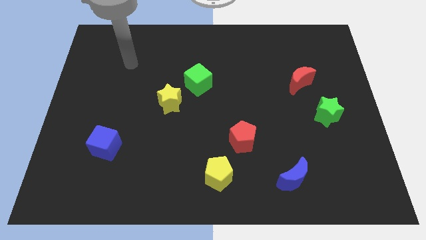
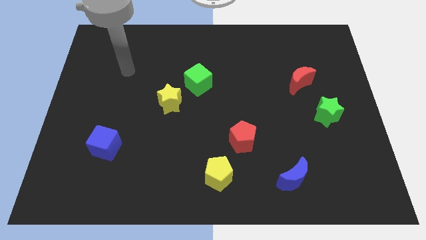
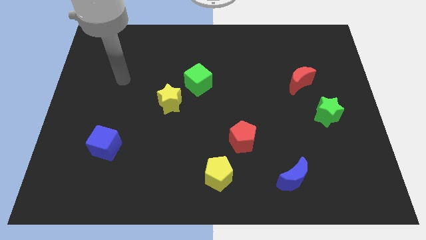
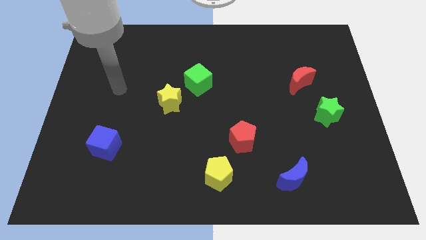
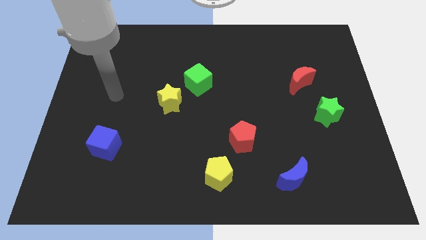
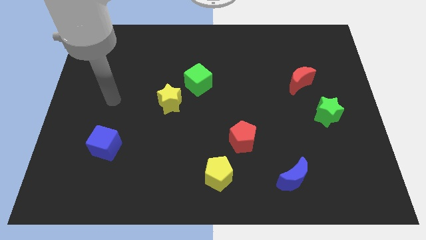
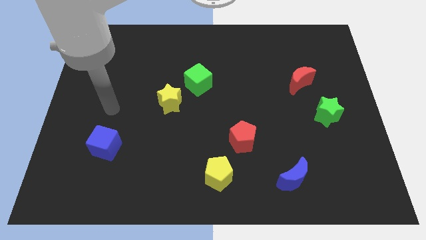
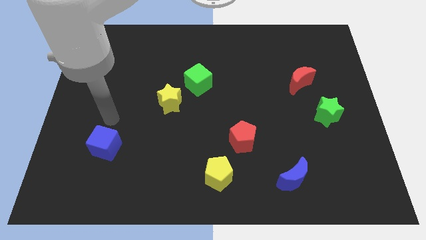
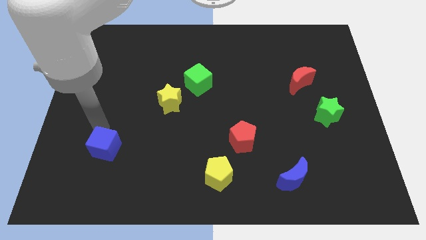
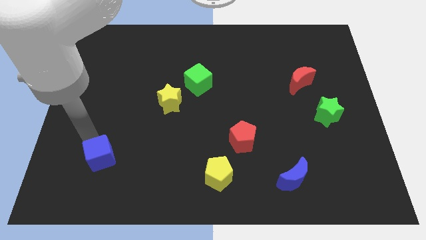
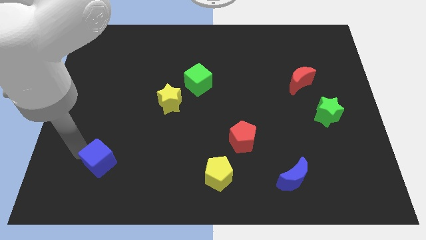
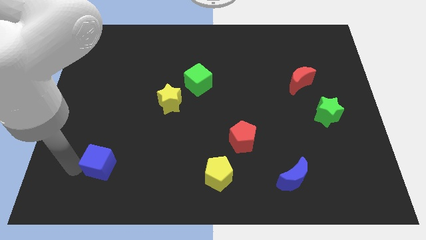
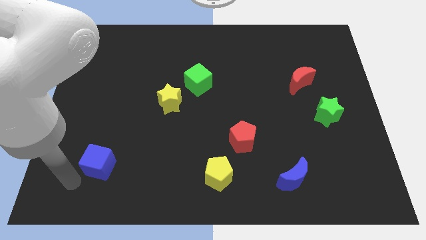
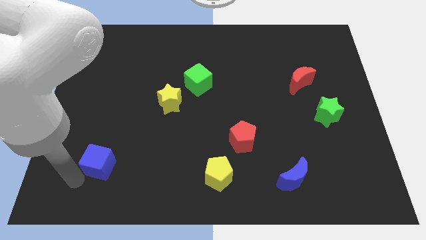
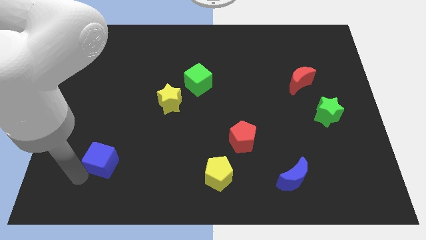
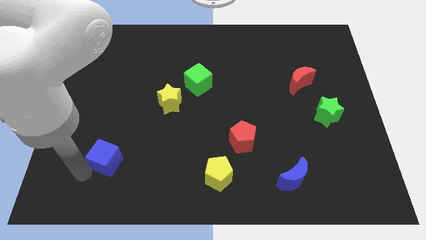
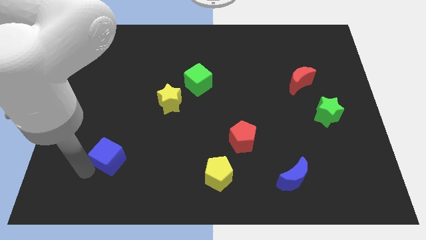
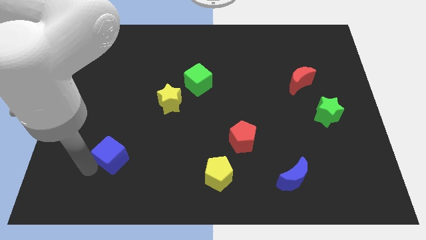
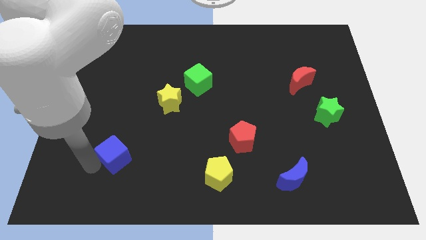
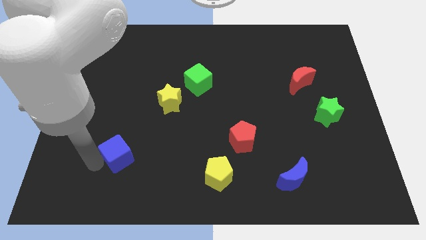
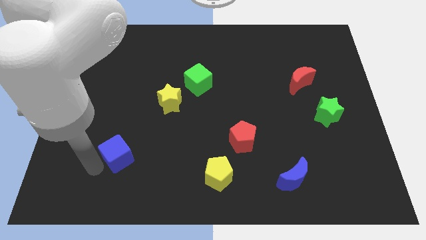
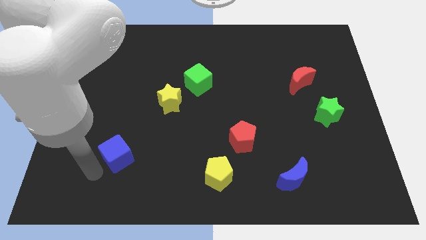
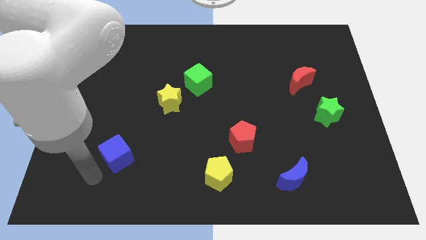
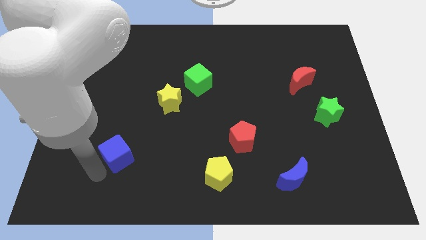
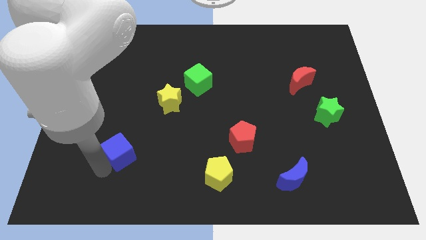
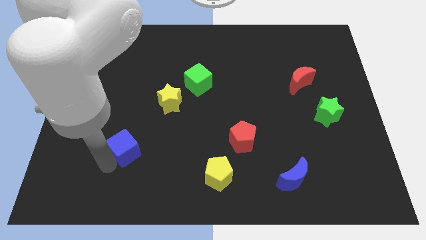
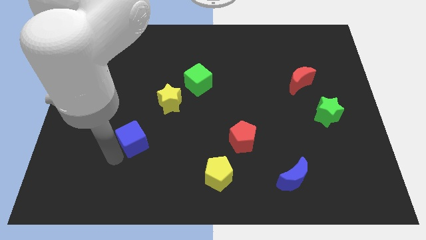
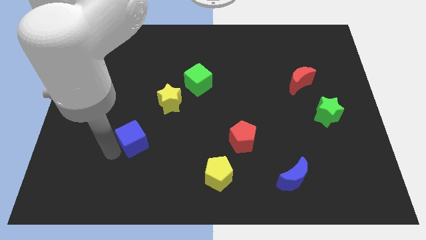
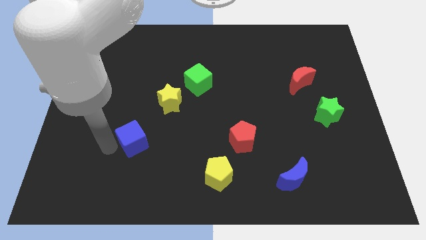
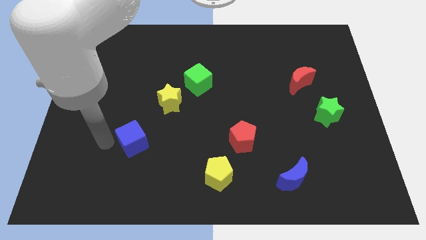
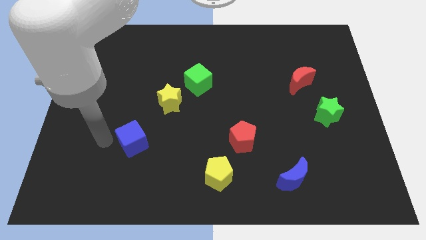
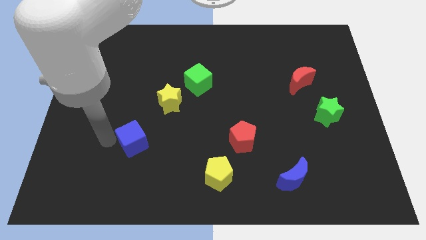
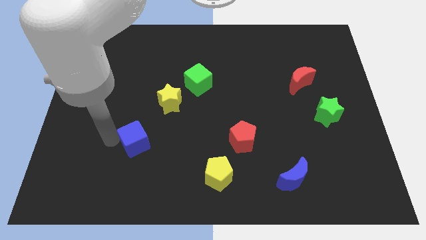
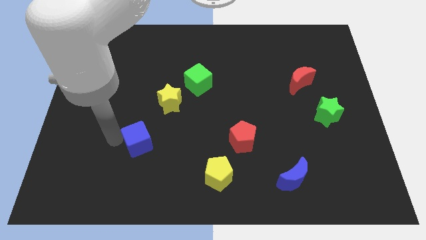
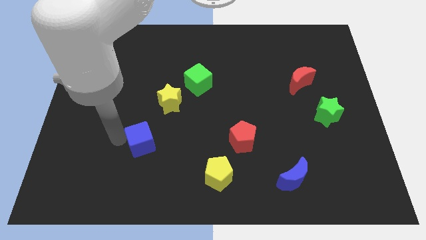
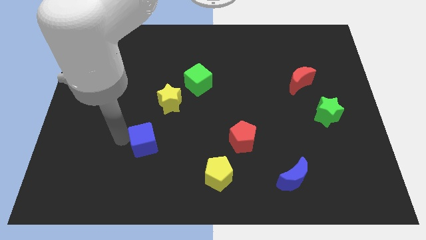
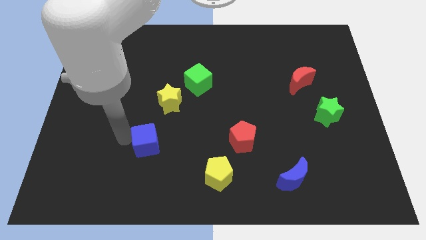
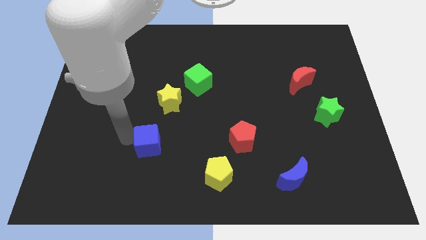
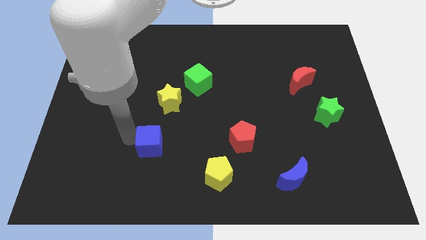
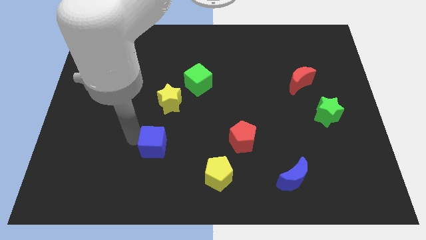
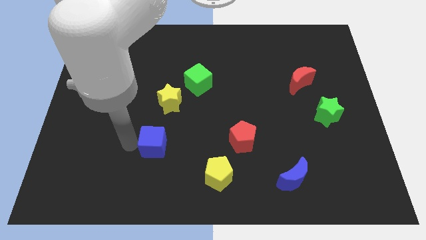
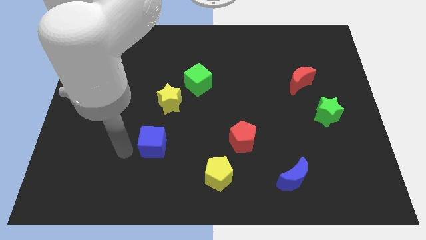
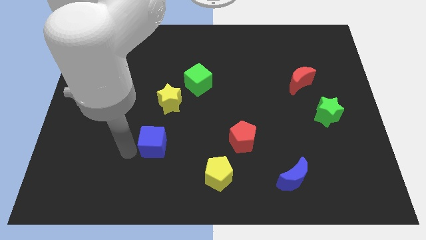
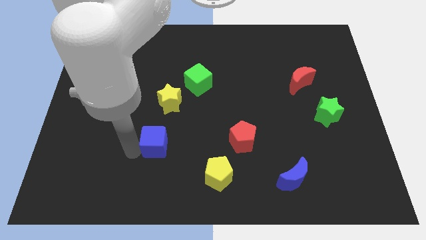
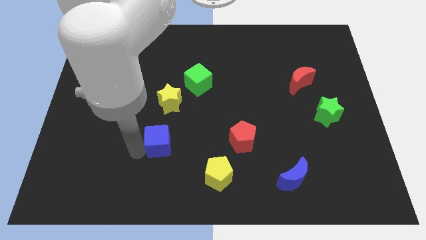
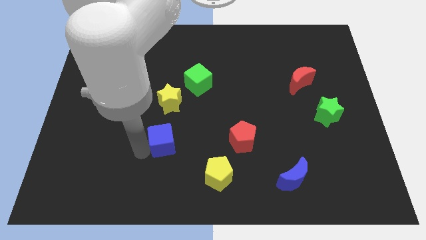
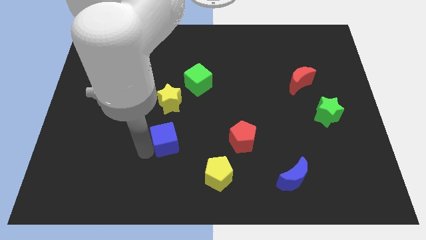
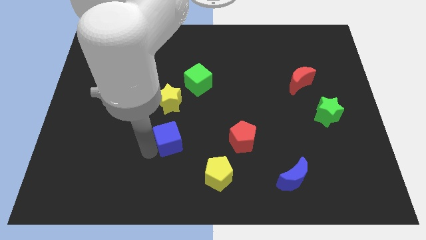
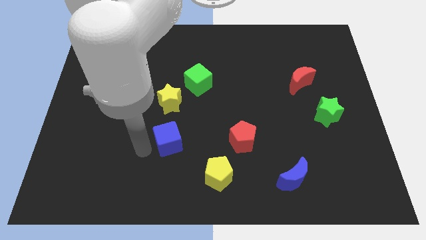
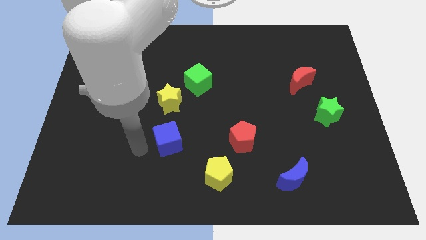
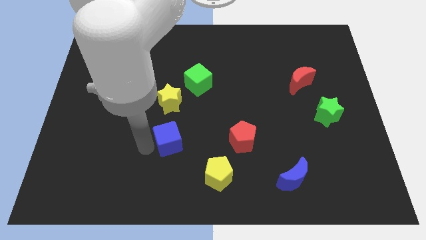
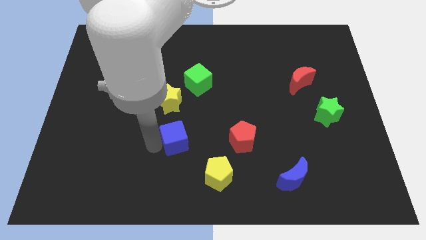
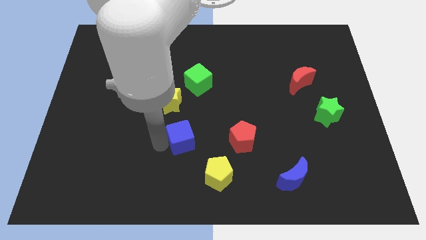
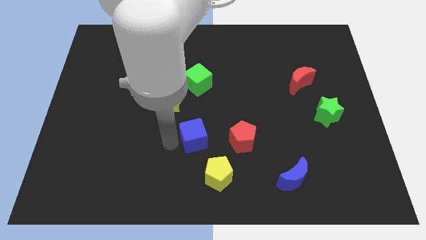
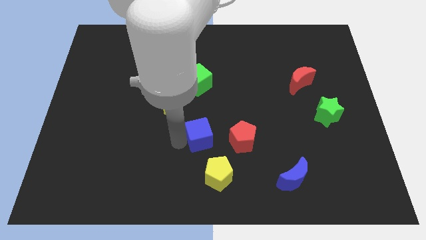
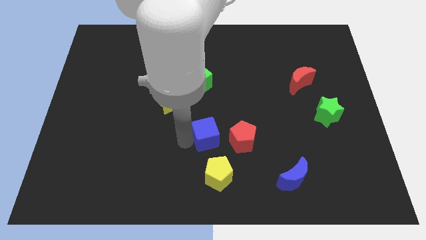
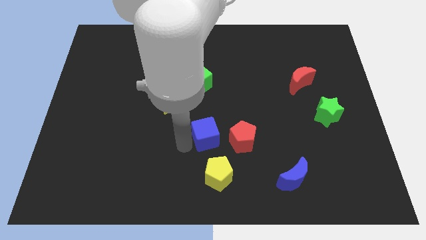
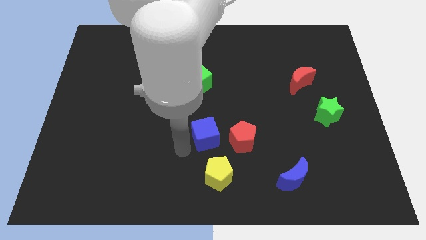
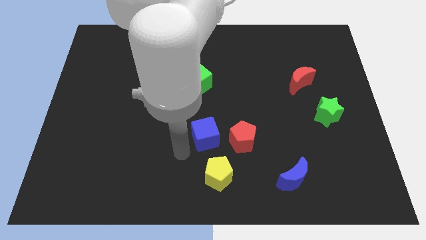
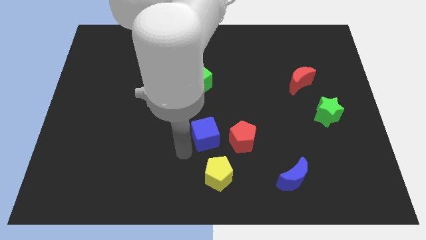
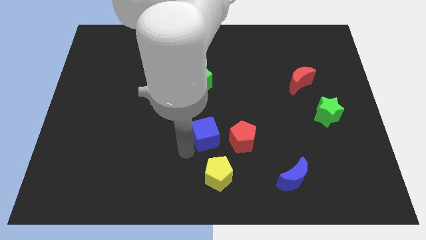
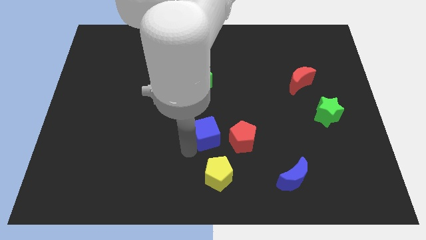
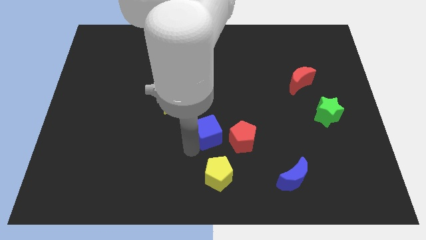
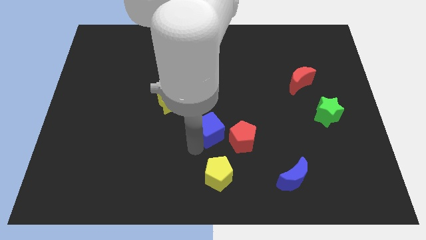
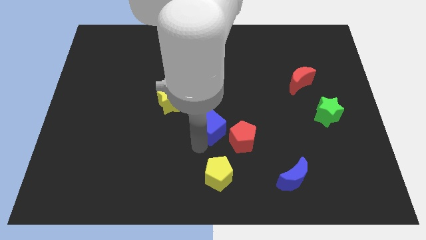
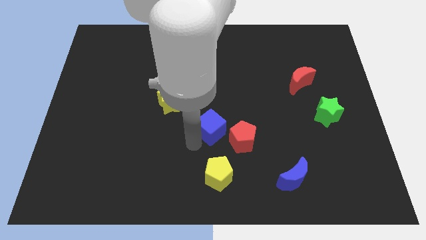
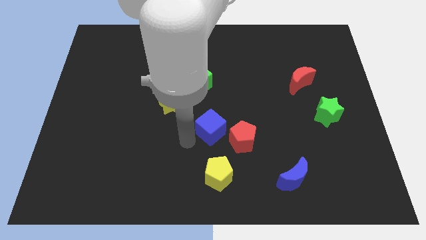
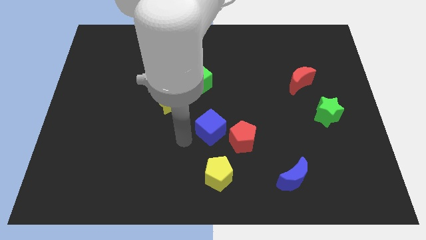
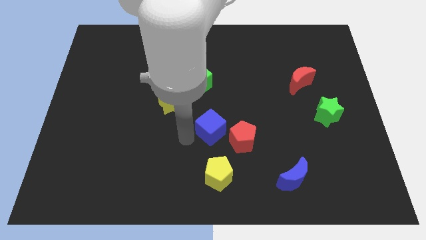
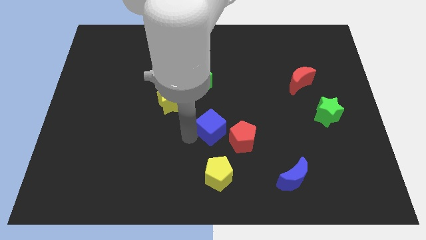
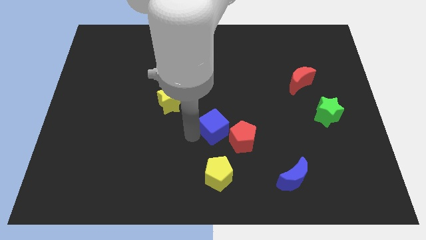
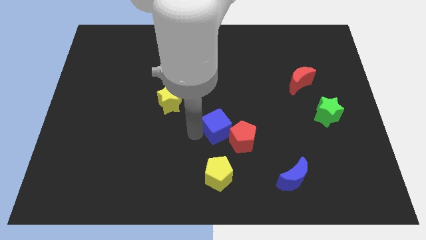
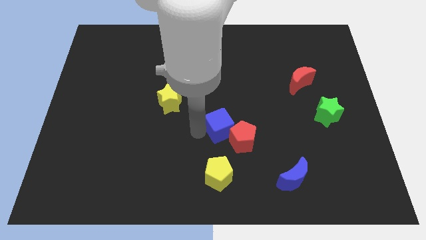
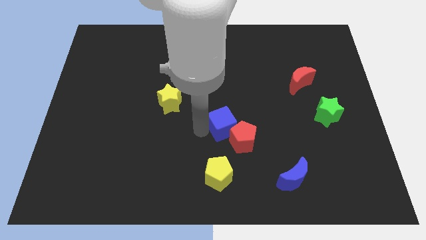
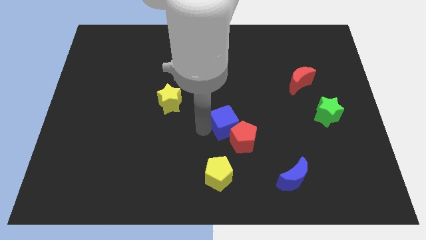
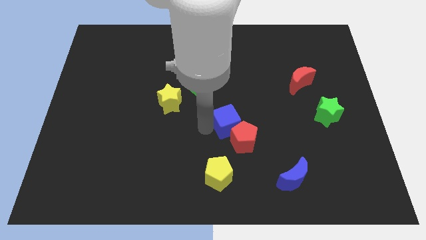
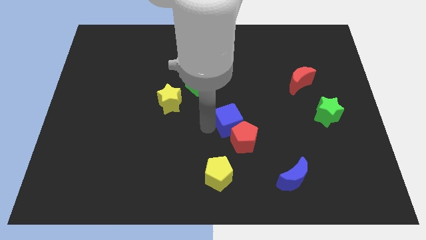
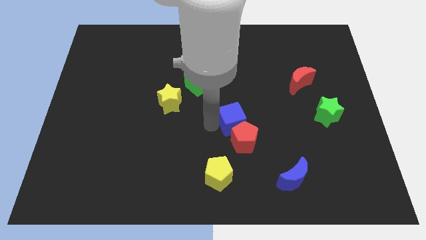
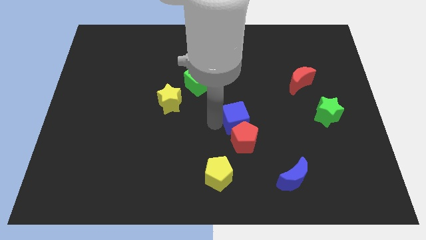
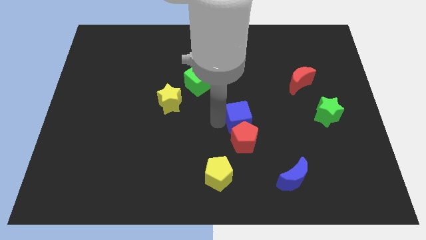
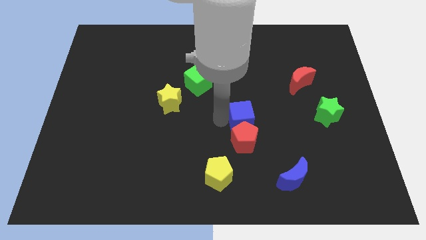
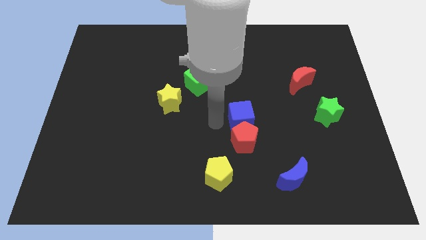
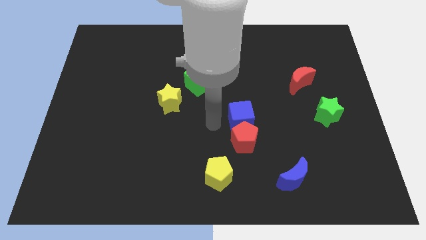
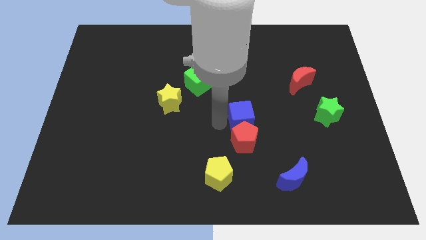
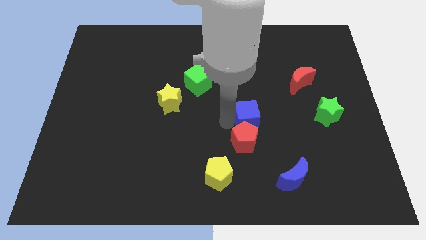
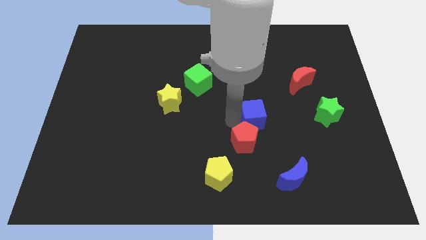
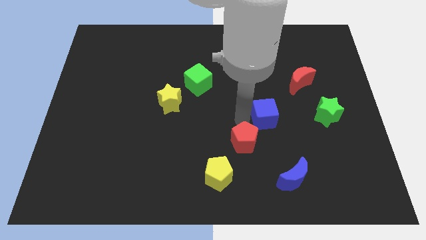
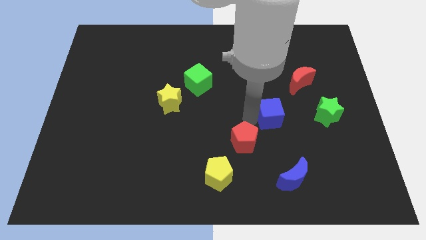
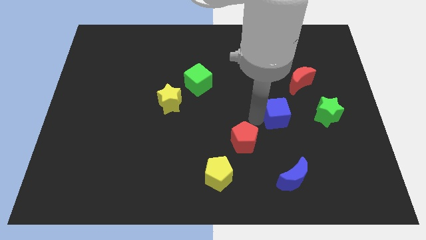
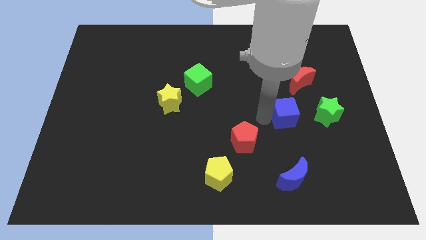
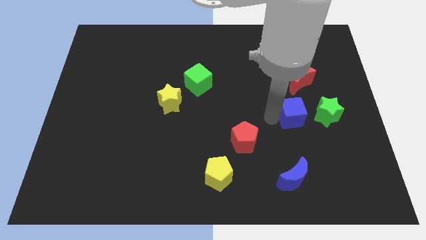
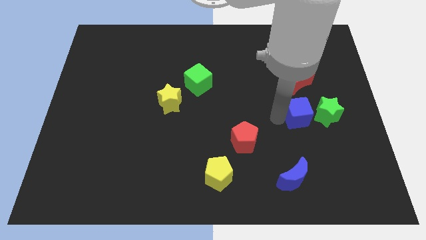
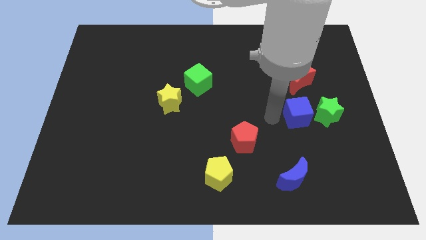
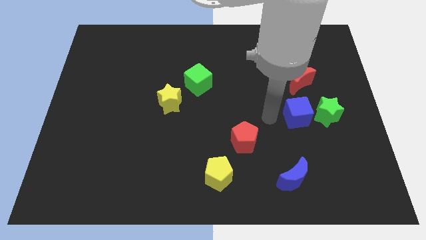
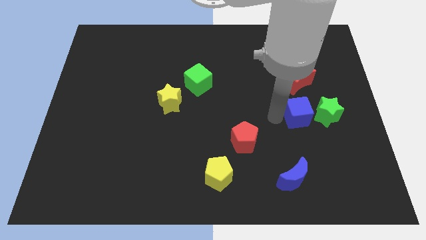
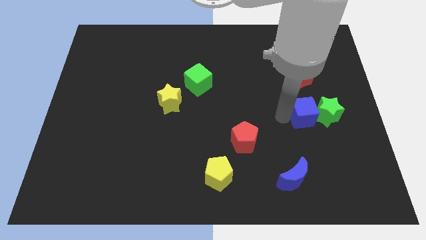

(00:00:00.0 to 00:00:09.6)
move the blue cube to the green star
